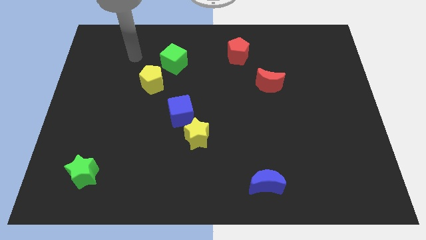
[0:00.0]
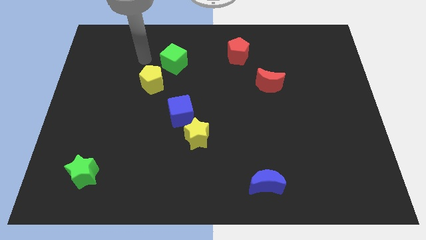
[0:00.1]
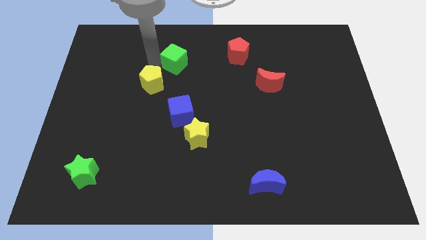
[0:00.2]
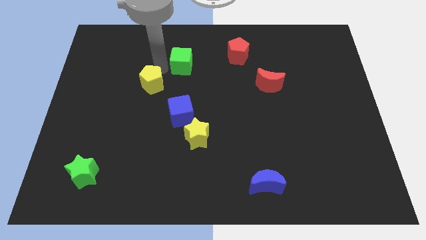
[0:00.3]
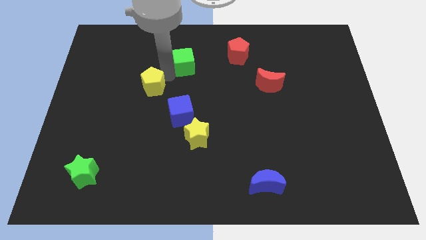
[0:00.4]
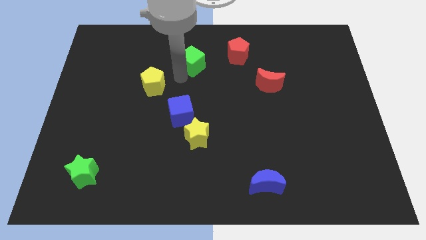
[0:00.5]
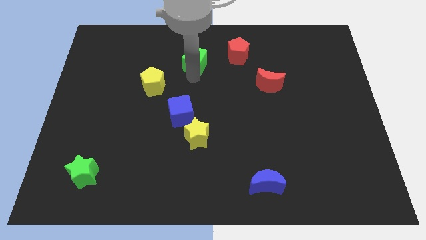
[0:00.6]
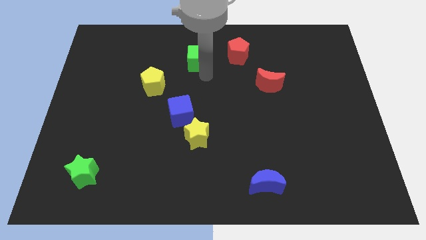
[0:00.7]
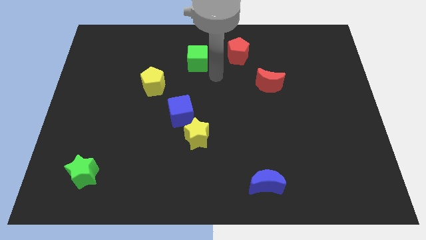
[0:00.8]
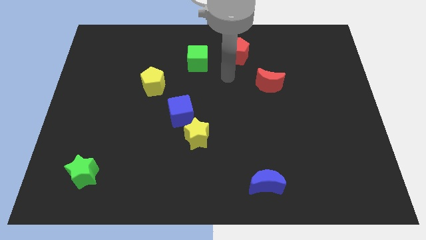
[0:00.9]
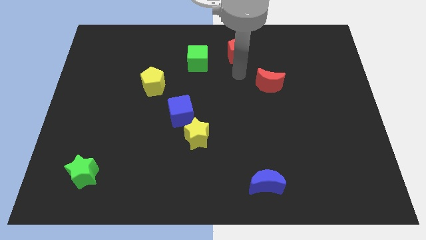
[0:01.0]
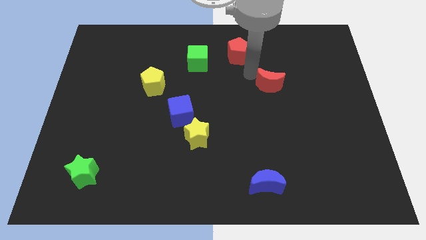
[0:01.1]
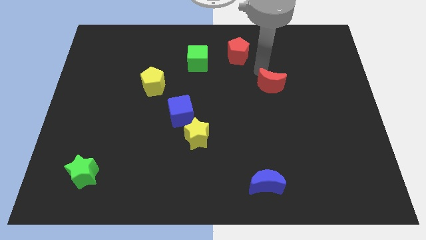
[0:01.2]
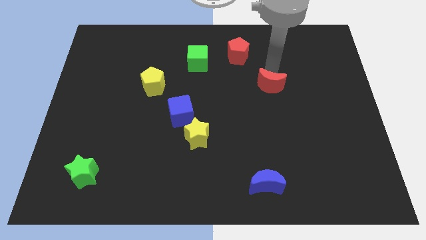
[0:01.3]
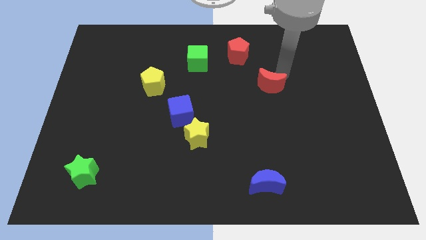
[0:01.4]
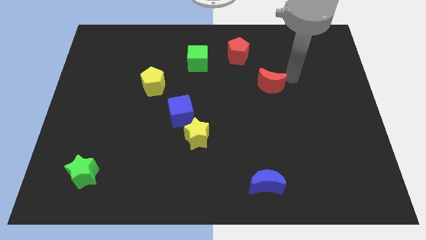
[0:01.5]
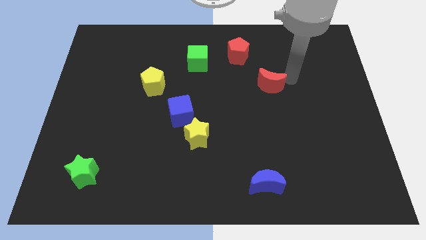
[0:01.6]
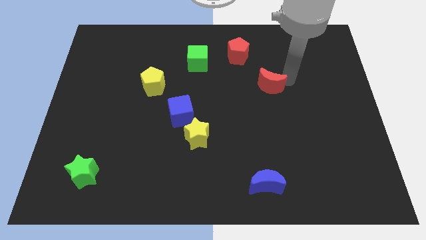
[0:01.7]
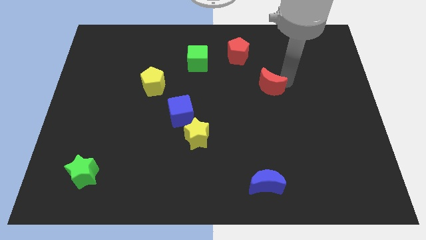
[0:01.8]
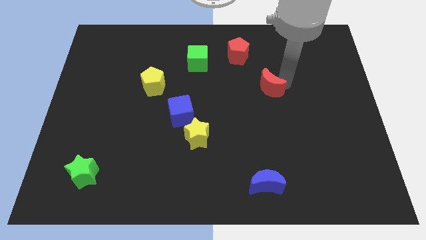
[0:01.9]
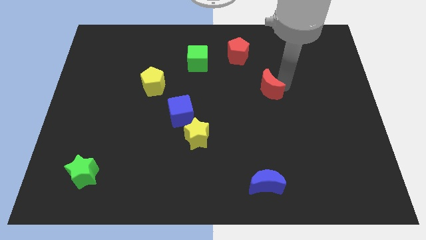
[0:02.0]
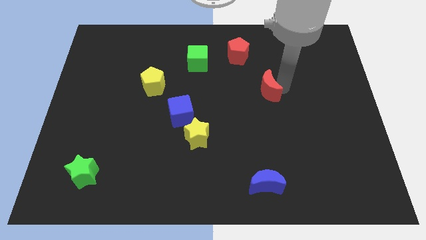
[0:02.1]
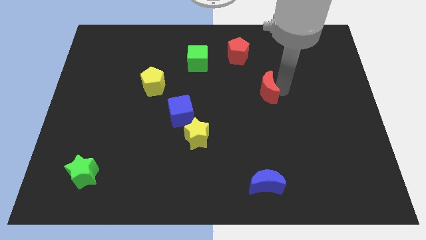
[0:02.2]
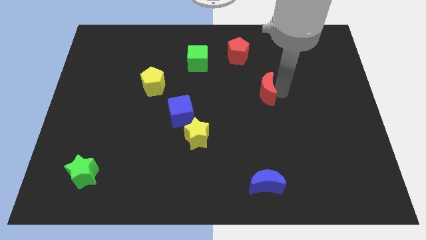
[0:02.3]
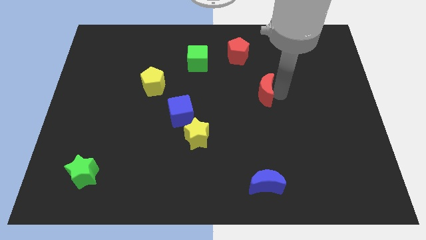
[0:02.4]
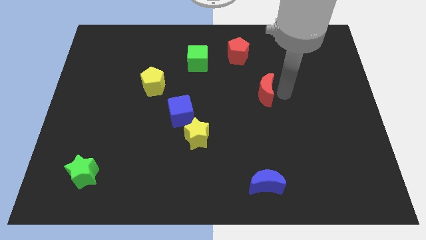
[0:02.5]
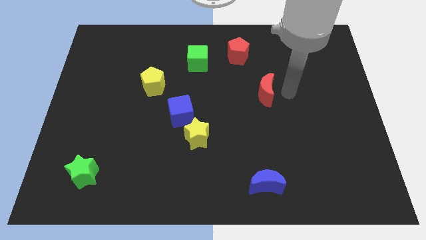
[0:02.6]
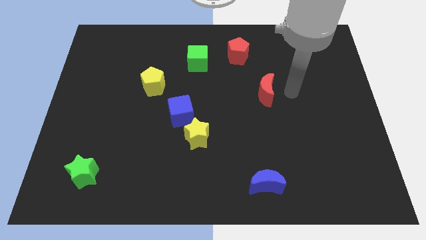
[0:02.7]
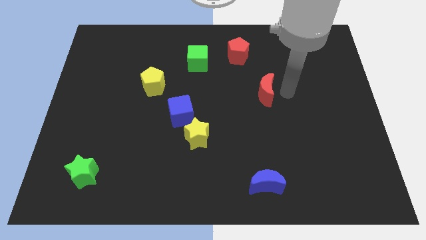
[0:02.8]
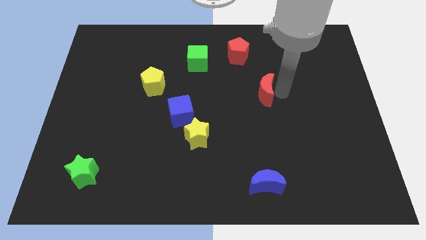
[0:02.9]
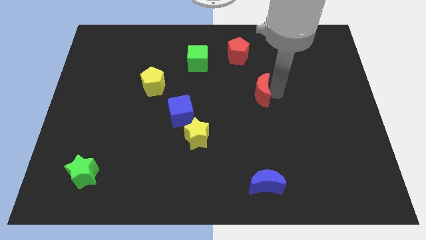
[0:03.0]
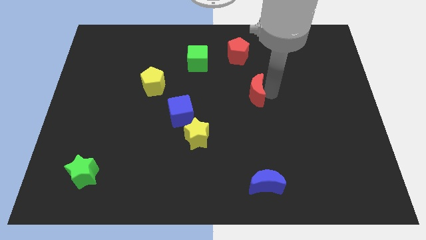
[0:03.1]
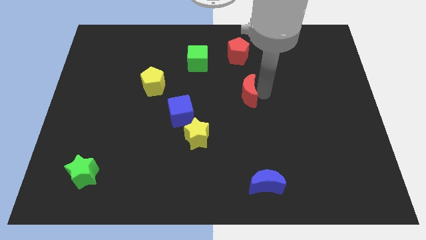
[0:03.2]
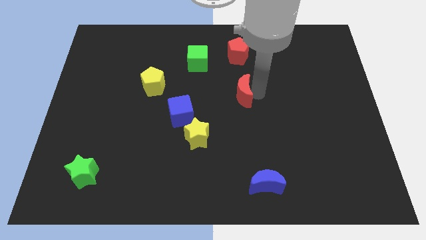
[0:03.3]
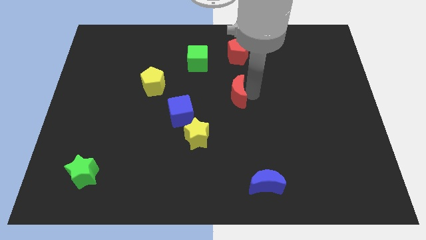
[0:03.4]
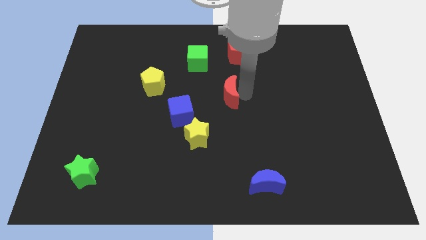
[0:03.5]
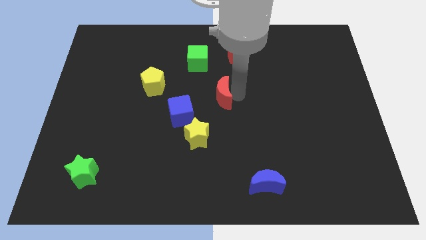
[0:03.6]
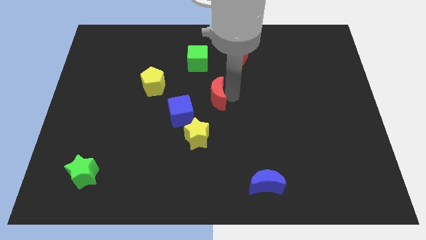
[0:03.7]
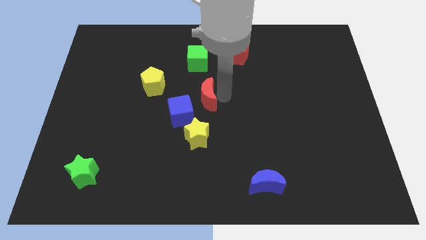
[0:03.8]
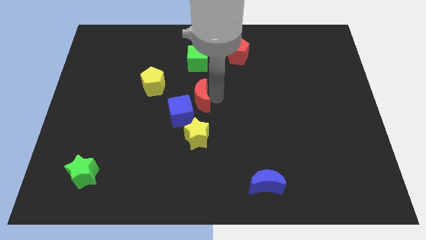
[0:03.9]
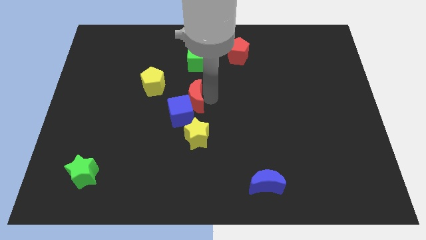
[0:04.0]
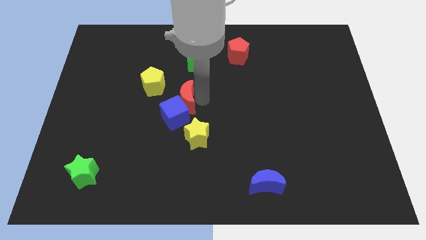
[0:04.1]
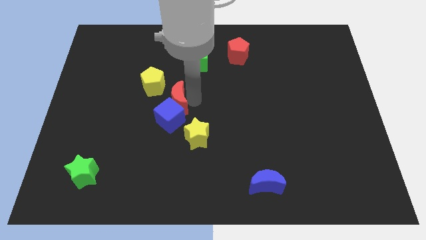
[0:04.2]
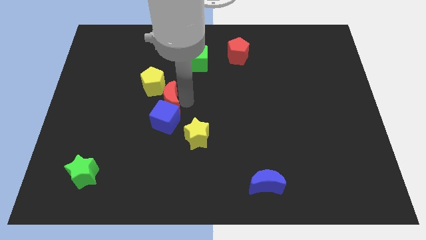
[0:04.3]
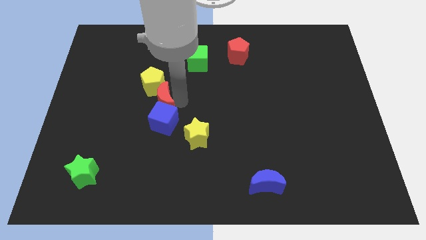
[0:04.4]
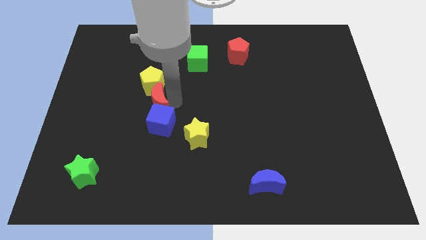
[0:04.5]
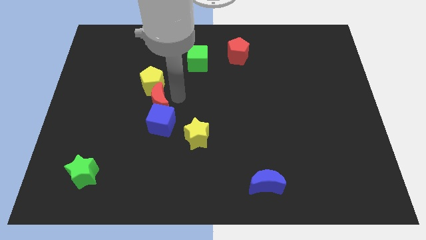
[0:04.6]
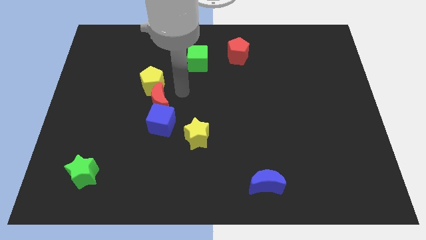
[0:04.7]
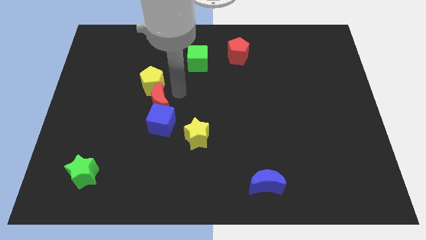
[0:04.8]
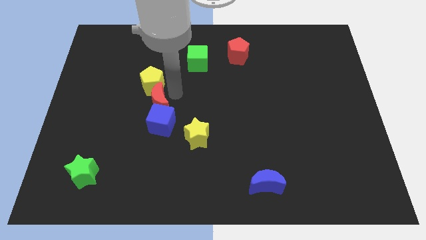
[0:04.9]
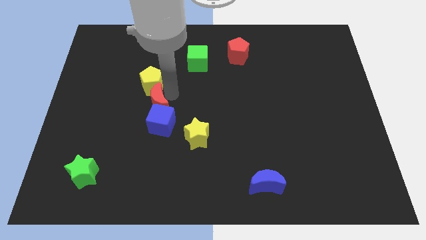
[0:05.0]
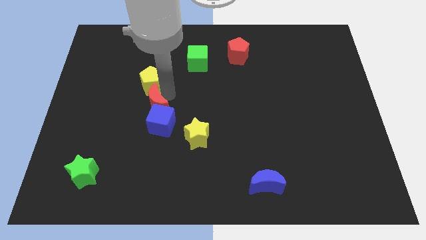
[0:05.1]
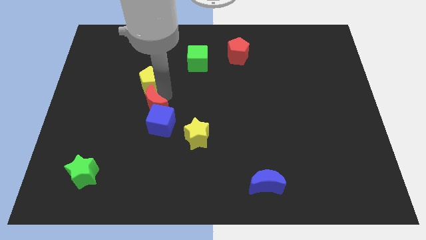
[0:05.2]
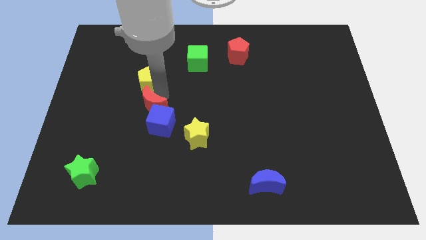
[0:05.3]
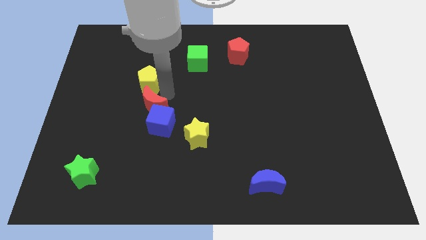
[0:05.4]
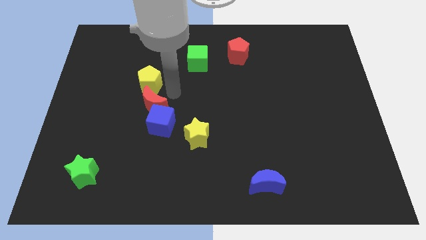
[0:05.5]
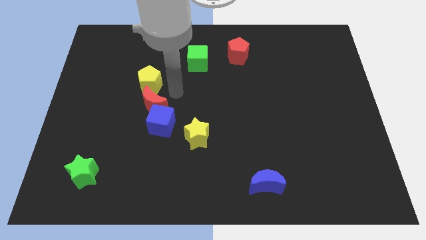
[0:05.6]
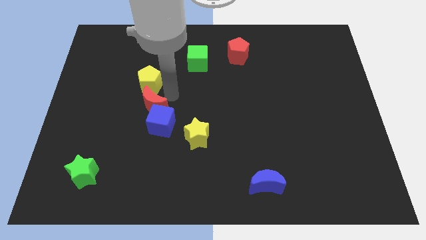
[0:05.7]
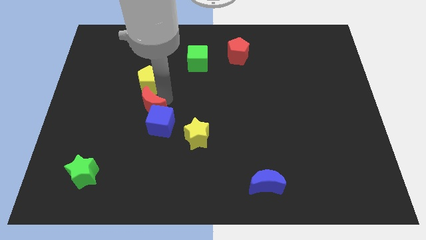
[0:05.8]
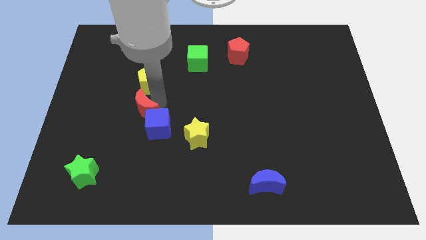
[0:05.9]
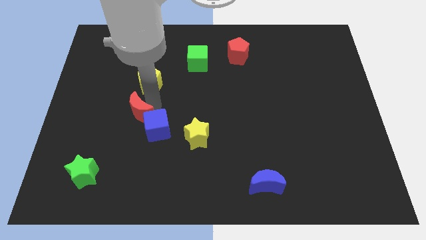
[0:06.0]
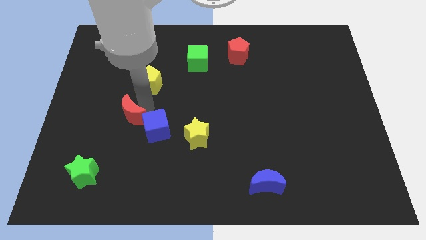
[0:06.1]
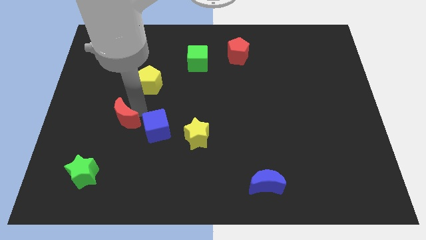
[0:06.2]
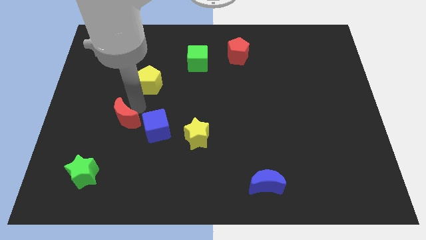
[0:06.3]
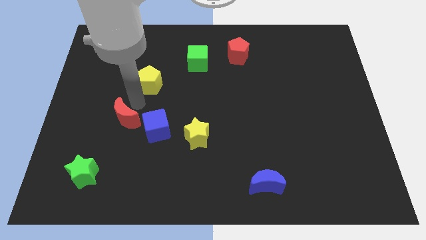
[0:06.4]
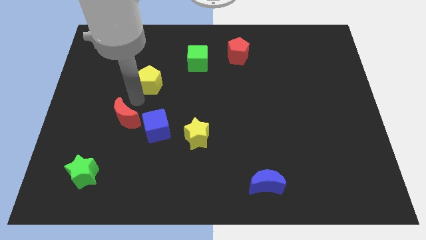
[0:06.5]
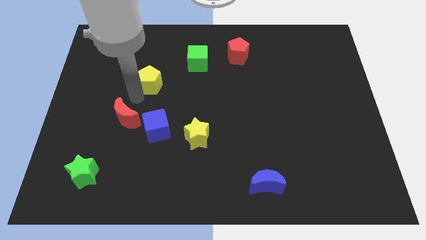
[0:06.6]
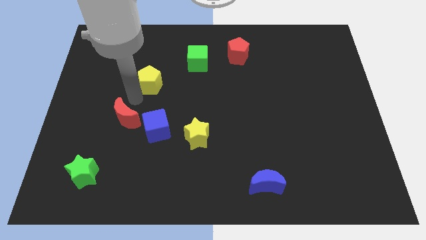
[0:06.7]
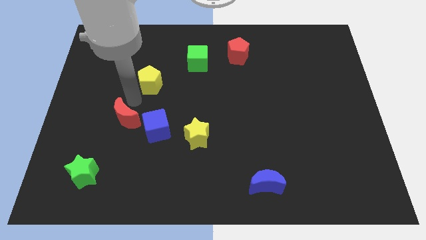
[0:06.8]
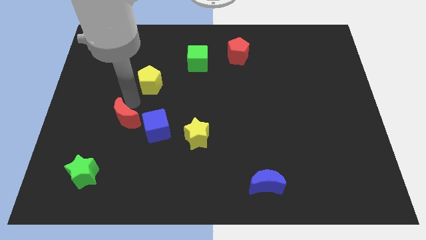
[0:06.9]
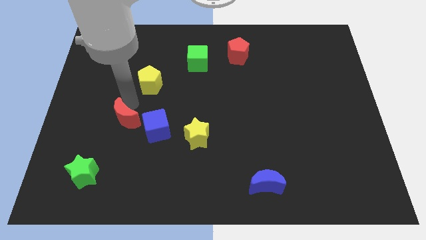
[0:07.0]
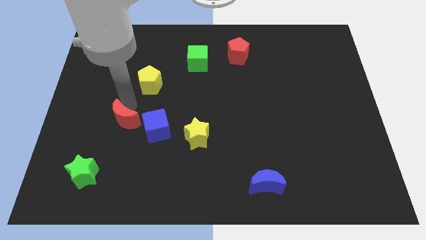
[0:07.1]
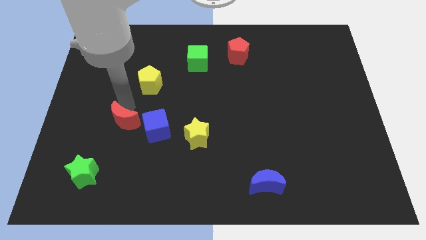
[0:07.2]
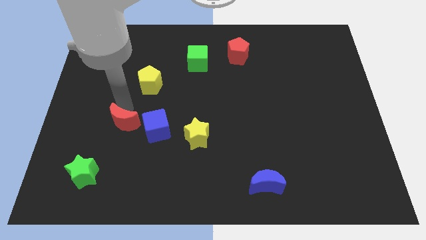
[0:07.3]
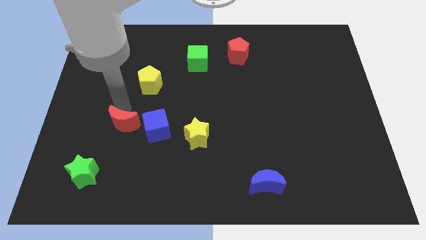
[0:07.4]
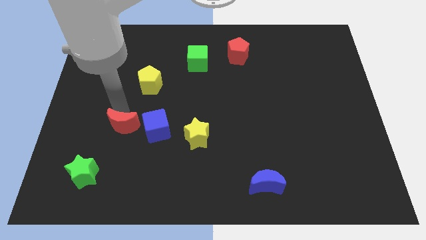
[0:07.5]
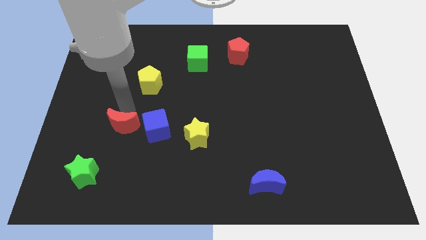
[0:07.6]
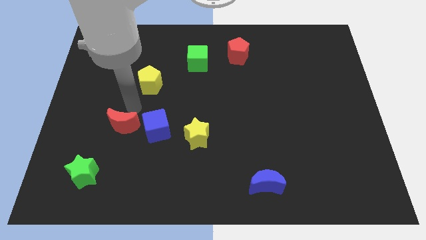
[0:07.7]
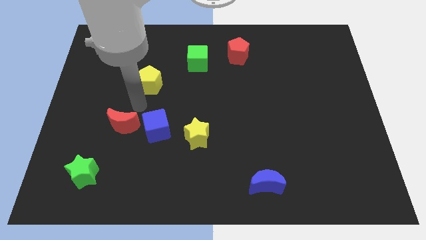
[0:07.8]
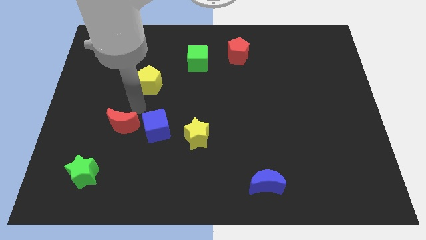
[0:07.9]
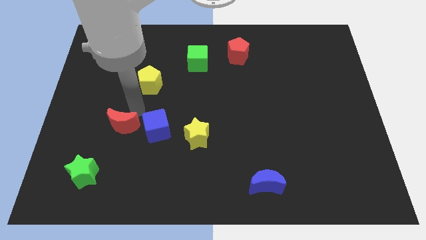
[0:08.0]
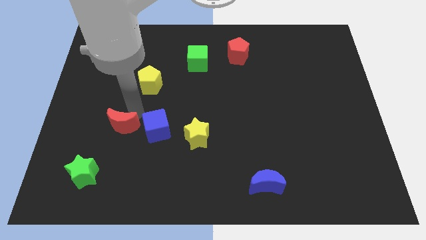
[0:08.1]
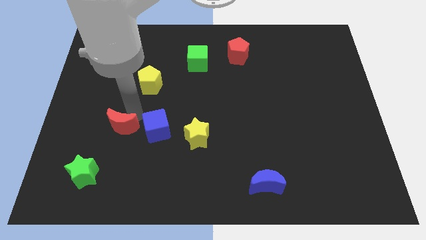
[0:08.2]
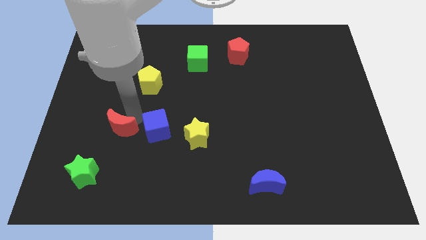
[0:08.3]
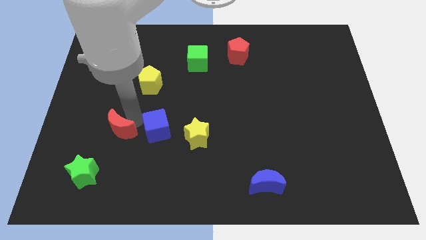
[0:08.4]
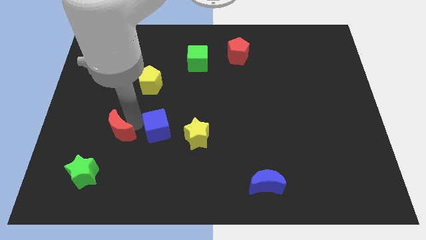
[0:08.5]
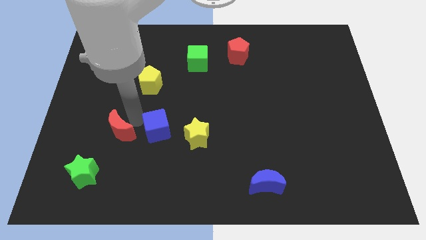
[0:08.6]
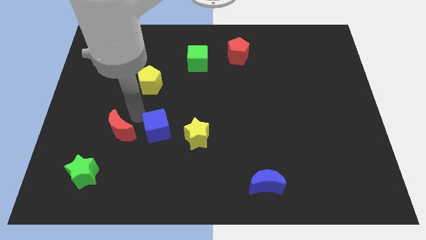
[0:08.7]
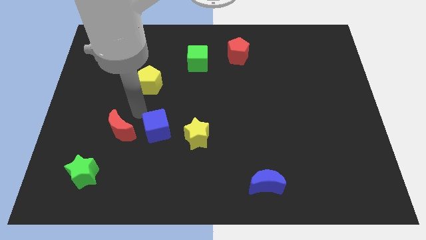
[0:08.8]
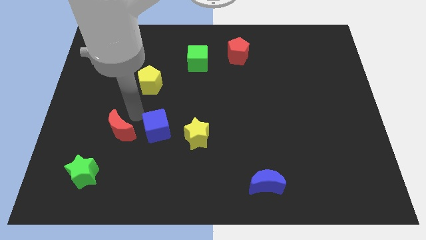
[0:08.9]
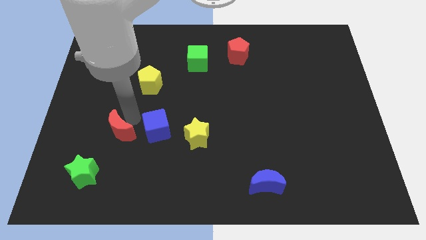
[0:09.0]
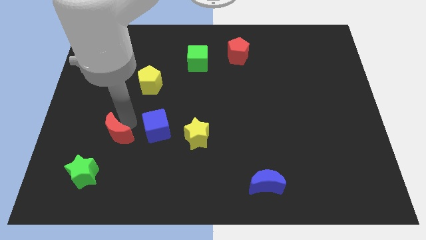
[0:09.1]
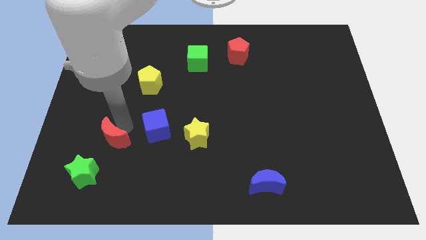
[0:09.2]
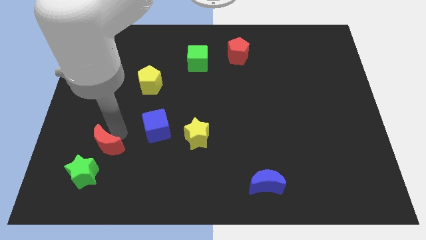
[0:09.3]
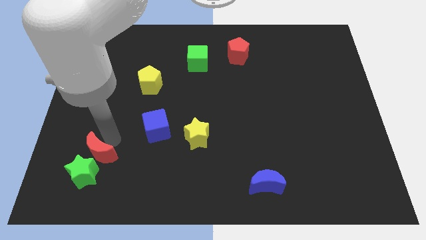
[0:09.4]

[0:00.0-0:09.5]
move the red moon to the green star
